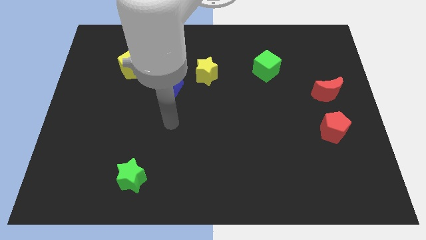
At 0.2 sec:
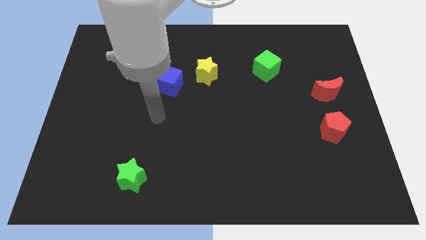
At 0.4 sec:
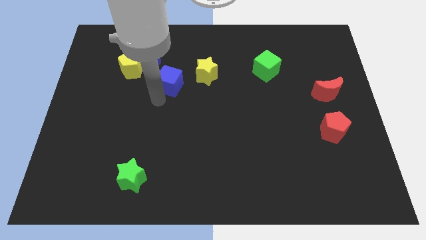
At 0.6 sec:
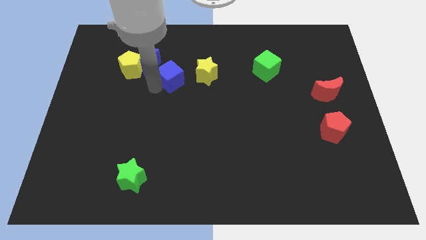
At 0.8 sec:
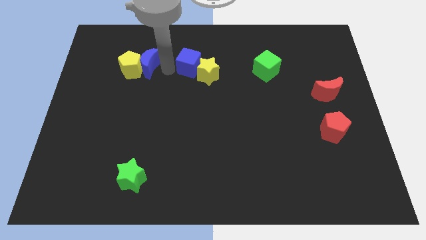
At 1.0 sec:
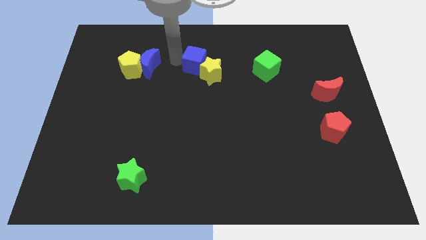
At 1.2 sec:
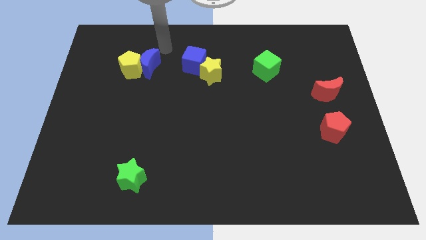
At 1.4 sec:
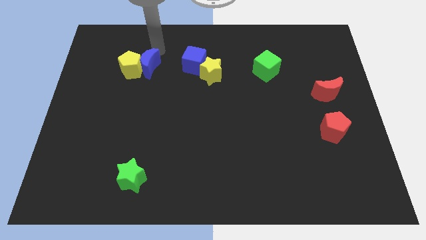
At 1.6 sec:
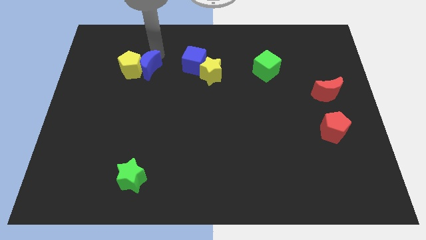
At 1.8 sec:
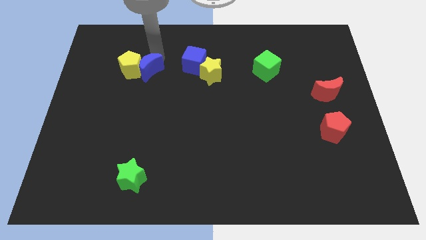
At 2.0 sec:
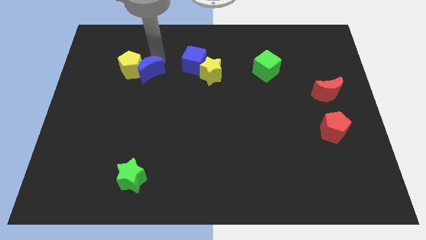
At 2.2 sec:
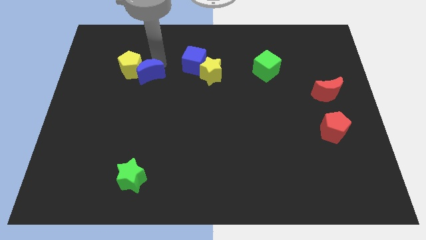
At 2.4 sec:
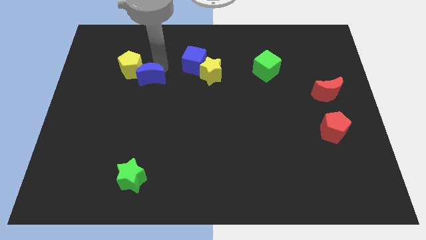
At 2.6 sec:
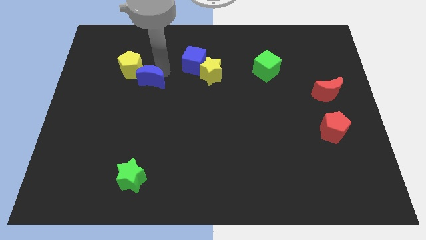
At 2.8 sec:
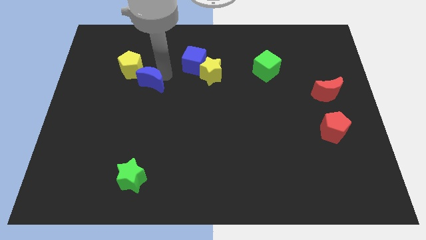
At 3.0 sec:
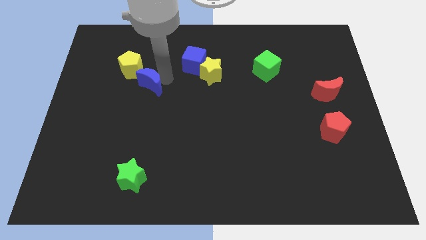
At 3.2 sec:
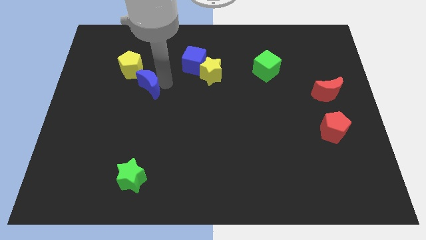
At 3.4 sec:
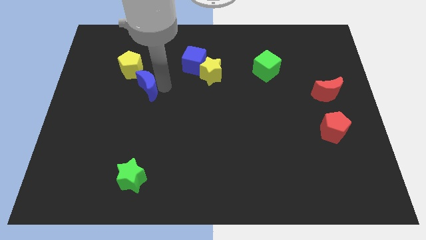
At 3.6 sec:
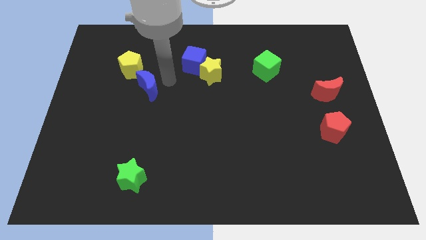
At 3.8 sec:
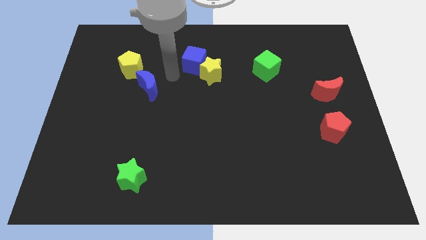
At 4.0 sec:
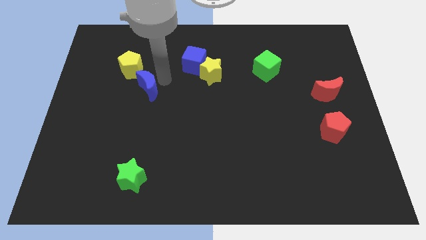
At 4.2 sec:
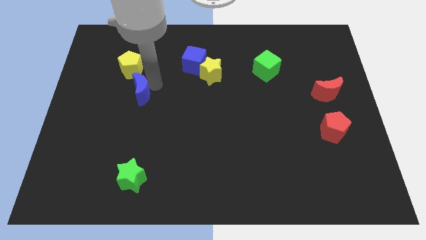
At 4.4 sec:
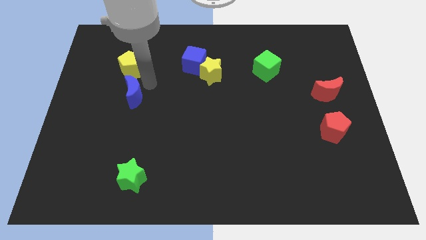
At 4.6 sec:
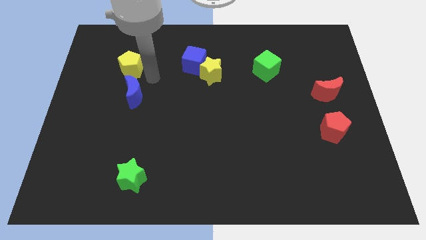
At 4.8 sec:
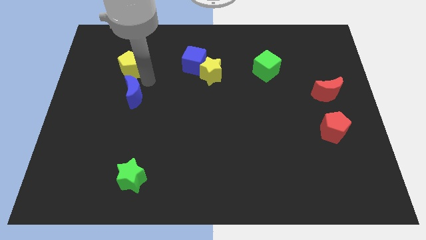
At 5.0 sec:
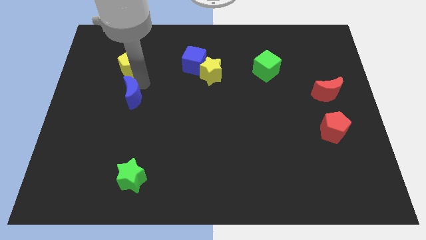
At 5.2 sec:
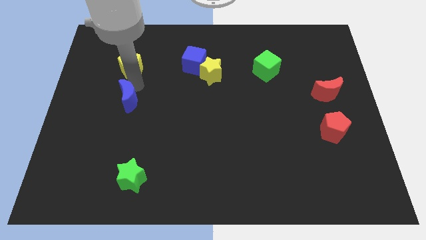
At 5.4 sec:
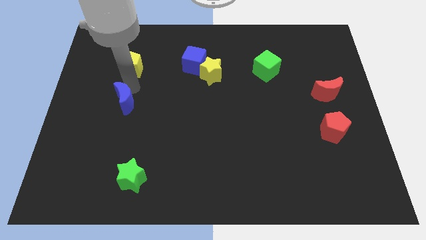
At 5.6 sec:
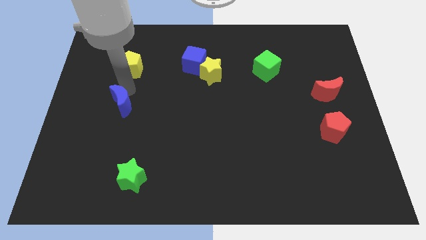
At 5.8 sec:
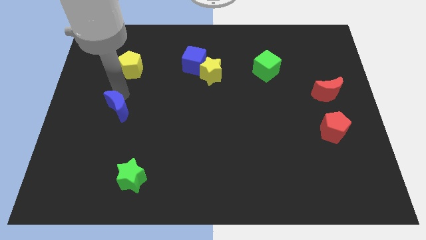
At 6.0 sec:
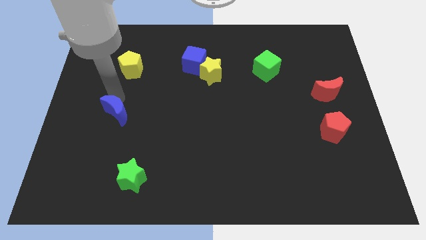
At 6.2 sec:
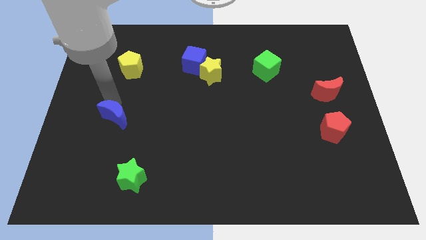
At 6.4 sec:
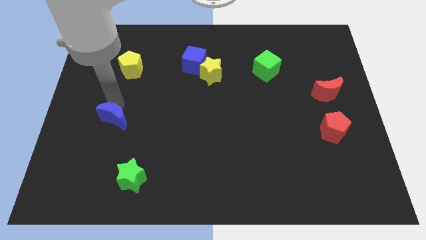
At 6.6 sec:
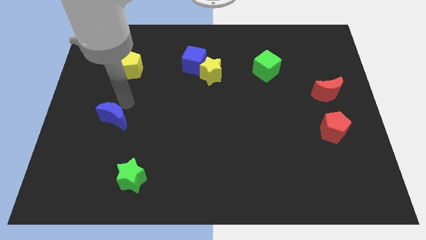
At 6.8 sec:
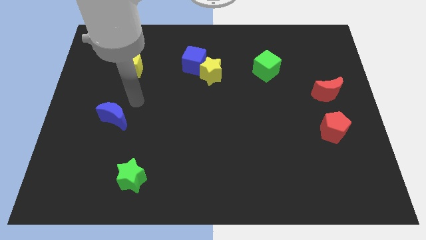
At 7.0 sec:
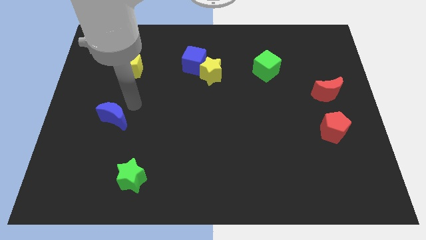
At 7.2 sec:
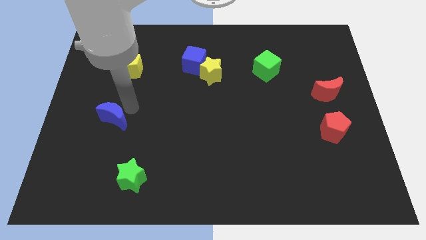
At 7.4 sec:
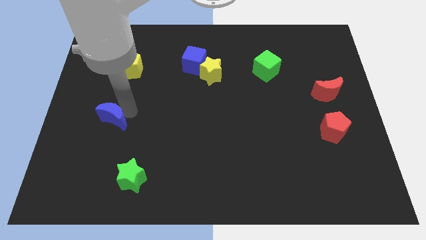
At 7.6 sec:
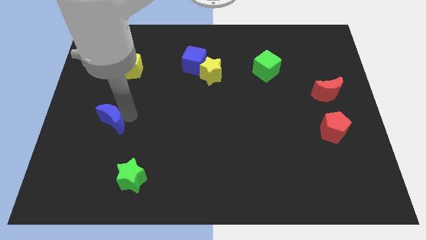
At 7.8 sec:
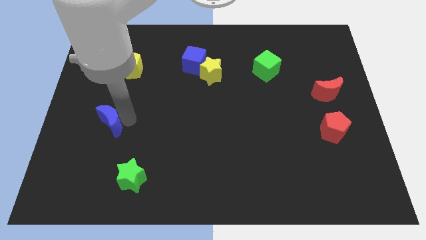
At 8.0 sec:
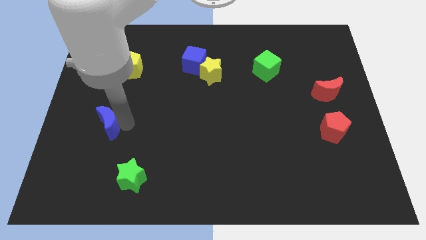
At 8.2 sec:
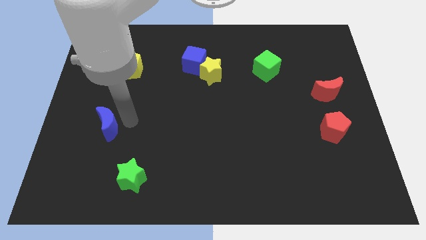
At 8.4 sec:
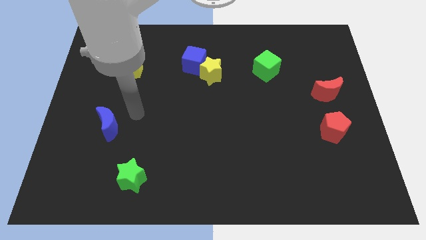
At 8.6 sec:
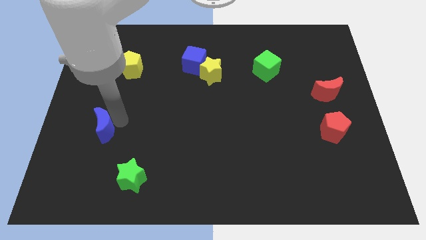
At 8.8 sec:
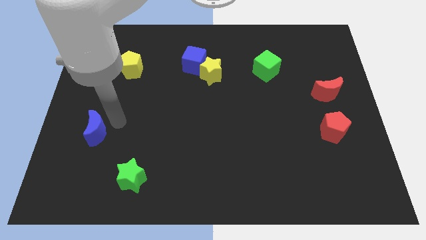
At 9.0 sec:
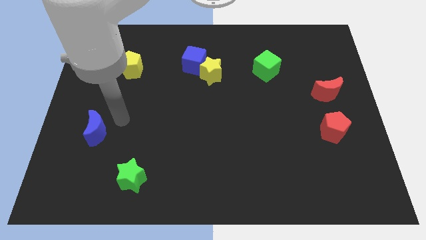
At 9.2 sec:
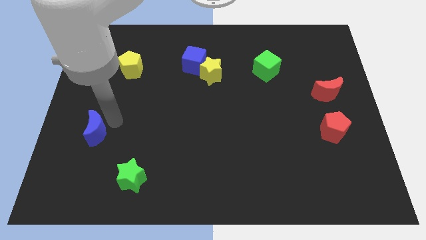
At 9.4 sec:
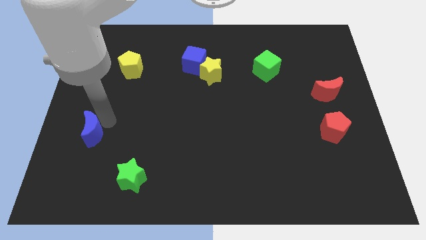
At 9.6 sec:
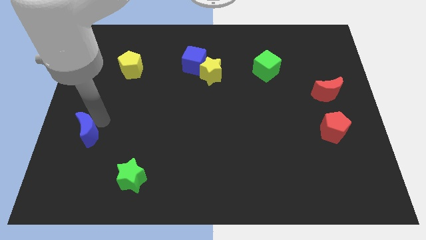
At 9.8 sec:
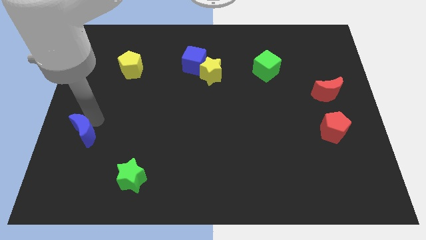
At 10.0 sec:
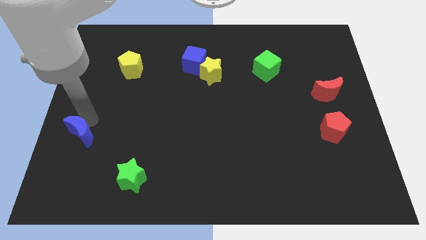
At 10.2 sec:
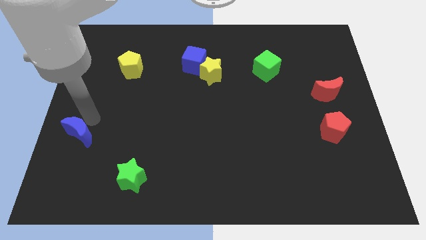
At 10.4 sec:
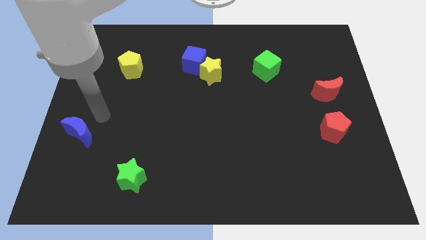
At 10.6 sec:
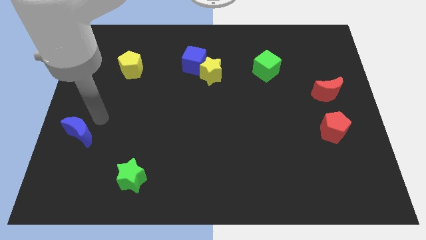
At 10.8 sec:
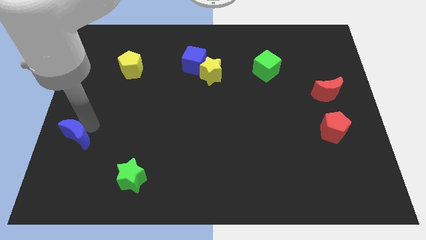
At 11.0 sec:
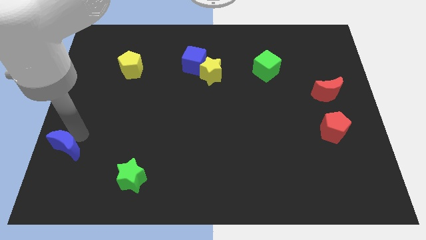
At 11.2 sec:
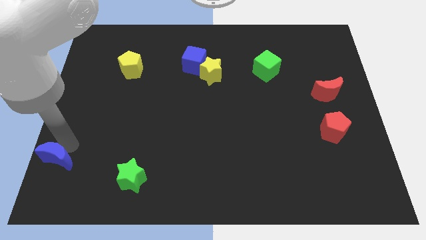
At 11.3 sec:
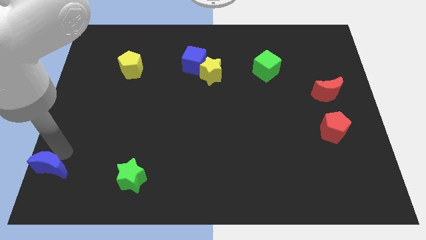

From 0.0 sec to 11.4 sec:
slide the blue moon to the bottom left of the board

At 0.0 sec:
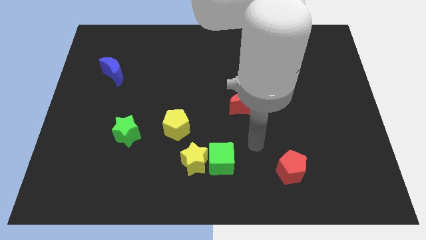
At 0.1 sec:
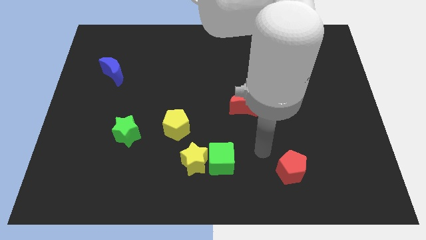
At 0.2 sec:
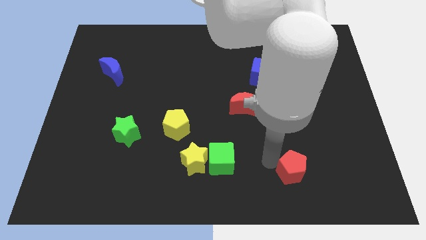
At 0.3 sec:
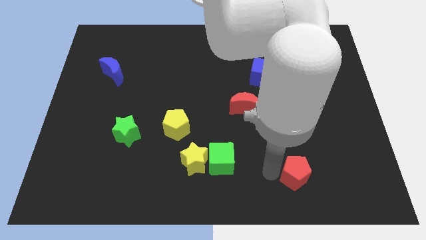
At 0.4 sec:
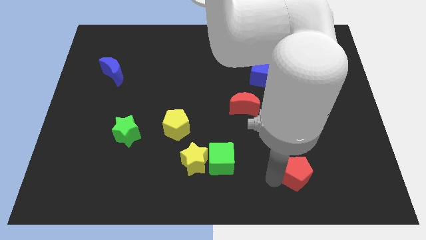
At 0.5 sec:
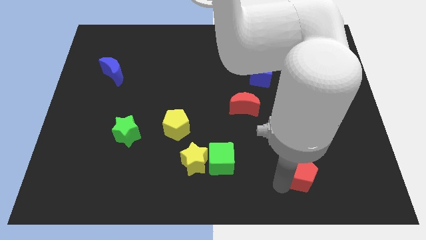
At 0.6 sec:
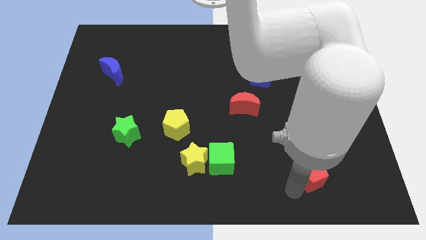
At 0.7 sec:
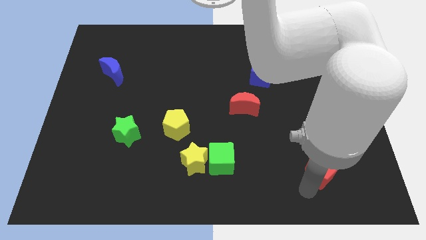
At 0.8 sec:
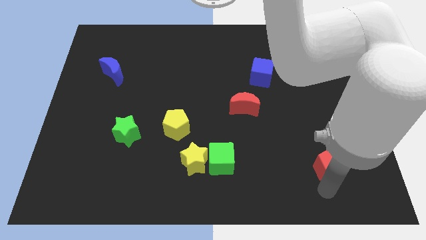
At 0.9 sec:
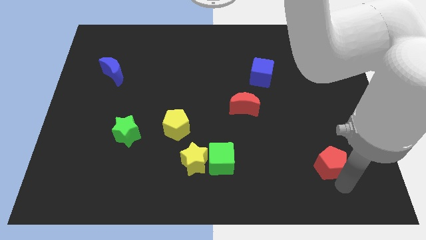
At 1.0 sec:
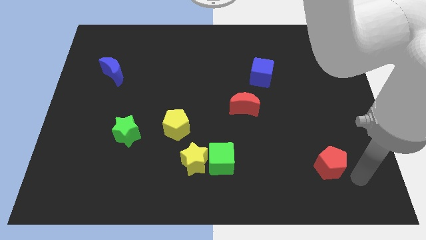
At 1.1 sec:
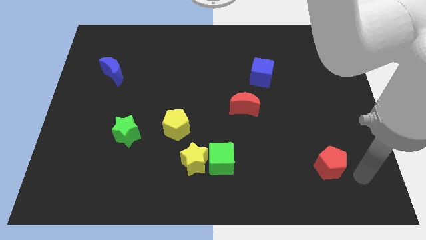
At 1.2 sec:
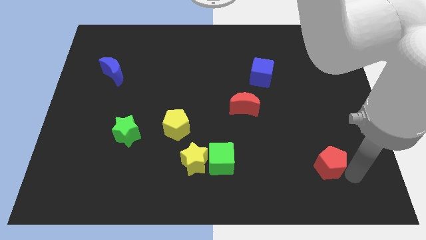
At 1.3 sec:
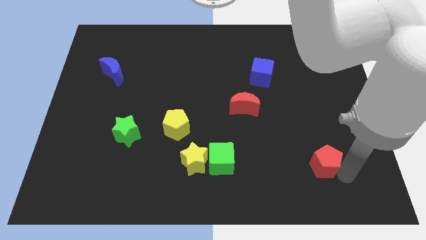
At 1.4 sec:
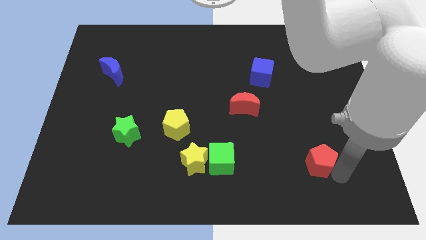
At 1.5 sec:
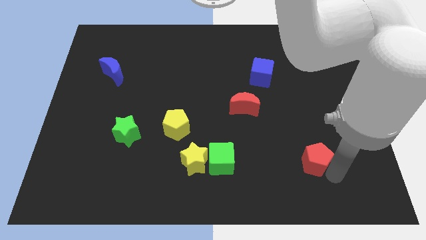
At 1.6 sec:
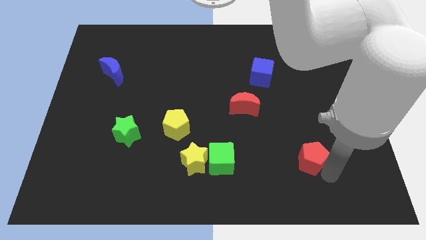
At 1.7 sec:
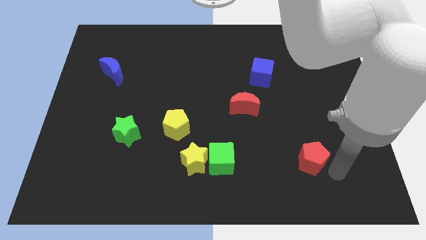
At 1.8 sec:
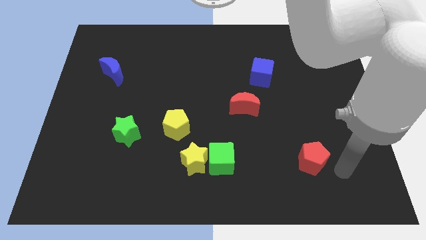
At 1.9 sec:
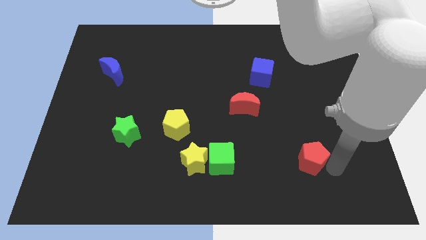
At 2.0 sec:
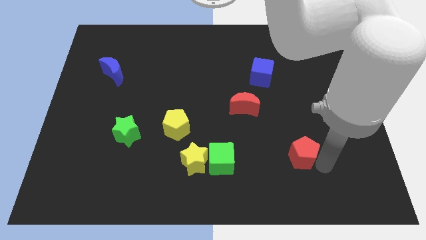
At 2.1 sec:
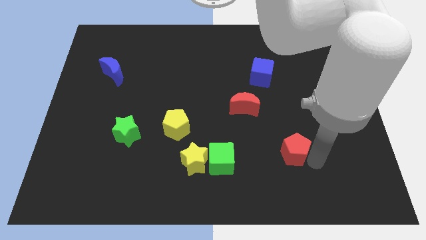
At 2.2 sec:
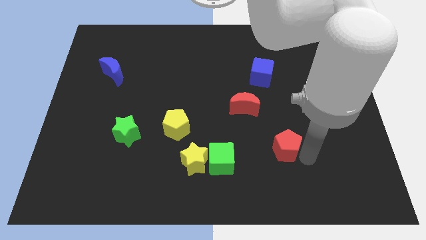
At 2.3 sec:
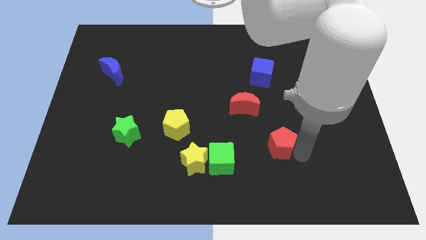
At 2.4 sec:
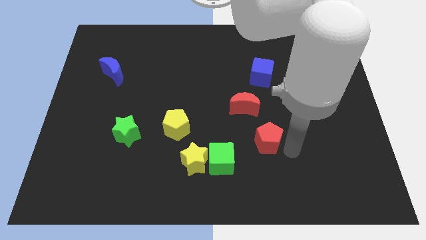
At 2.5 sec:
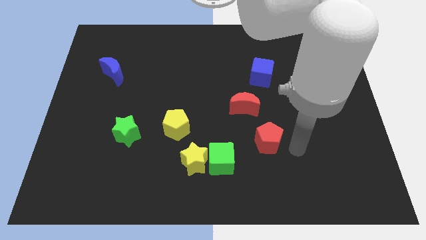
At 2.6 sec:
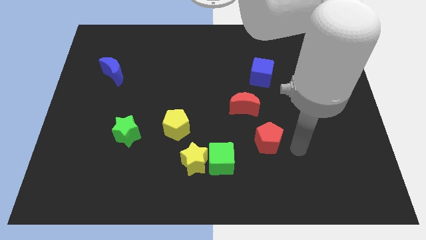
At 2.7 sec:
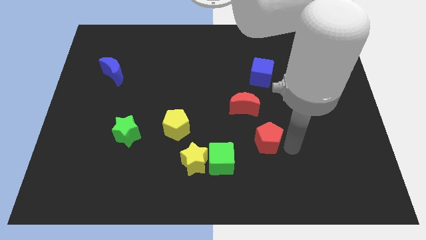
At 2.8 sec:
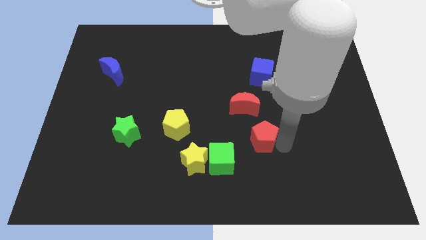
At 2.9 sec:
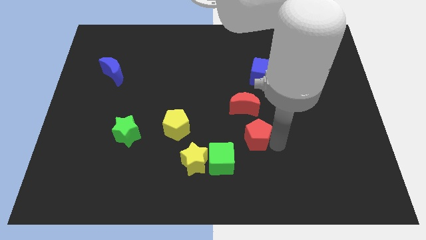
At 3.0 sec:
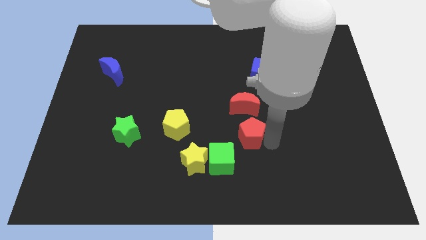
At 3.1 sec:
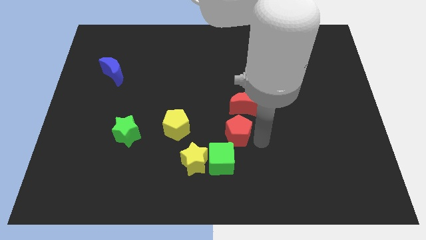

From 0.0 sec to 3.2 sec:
slide the red pentagon to the center of the board
